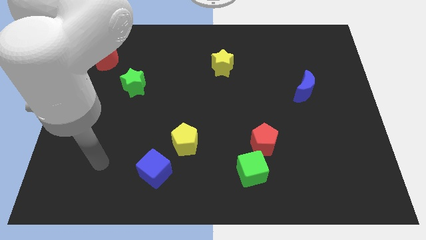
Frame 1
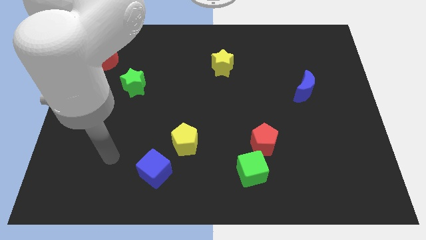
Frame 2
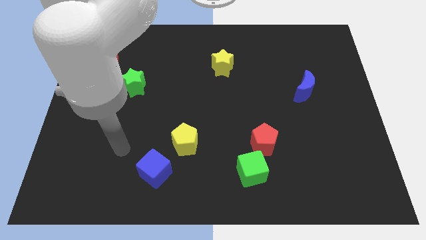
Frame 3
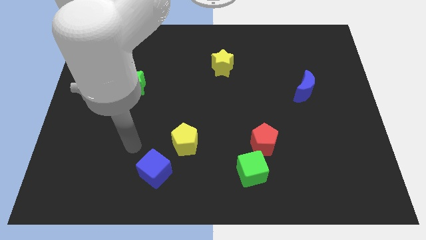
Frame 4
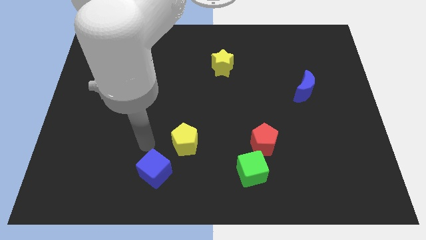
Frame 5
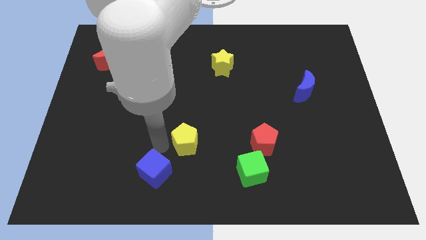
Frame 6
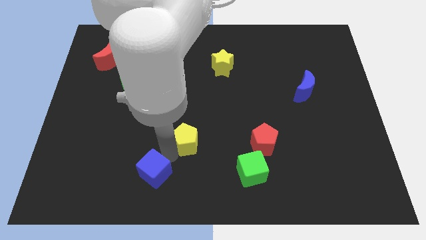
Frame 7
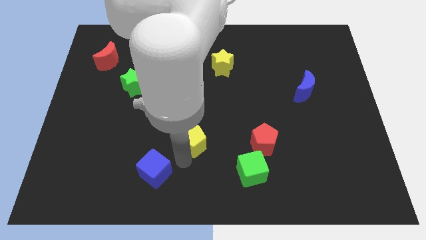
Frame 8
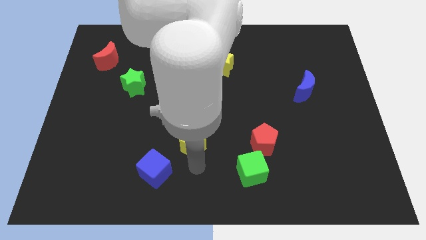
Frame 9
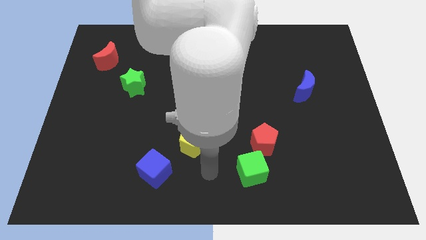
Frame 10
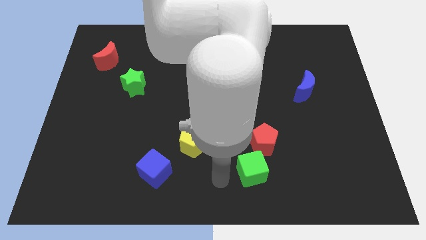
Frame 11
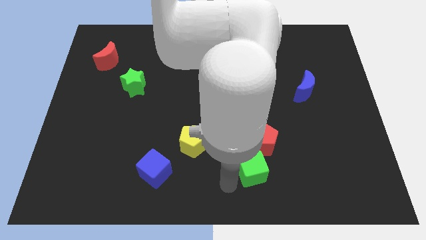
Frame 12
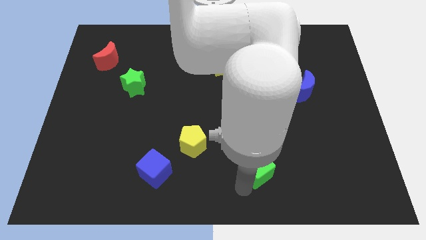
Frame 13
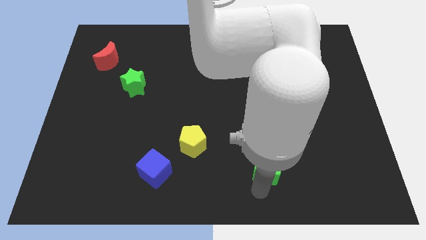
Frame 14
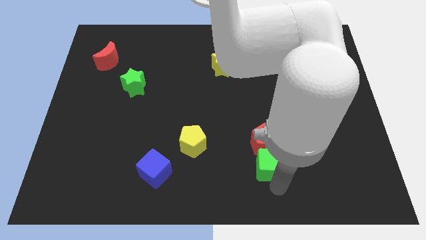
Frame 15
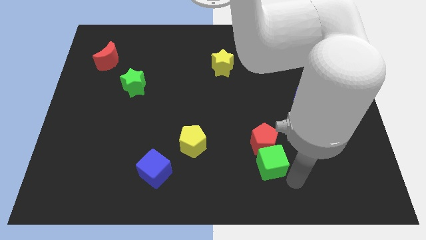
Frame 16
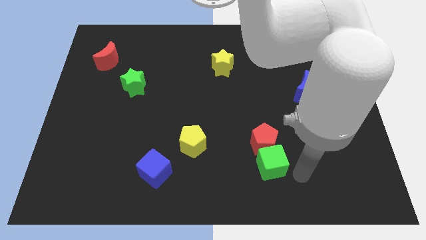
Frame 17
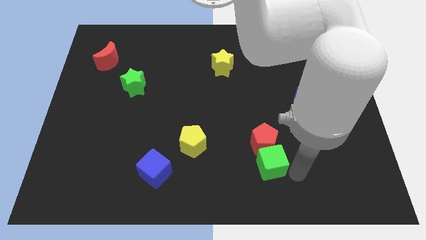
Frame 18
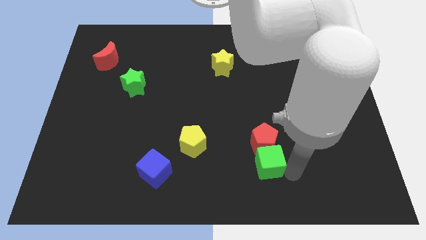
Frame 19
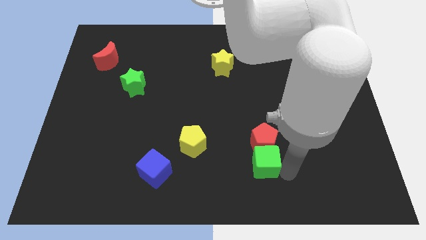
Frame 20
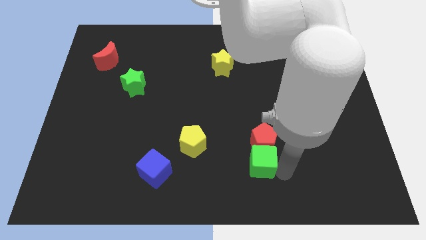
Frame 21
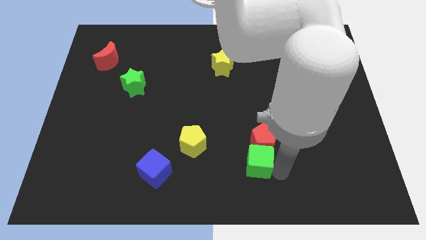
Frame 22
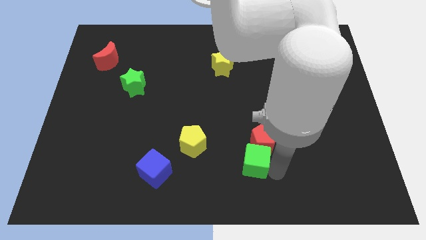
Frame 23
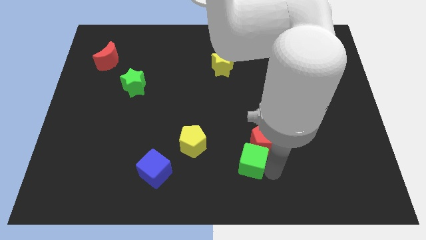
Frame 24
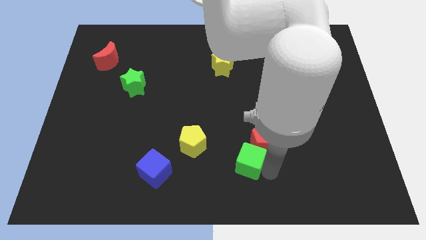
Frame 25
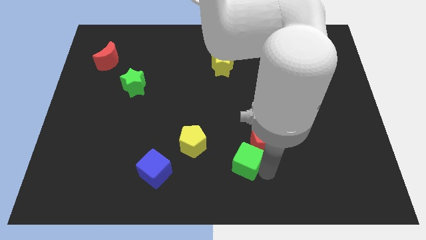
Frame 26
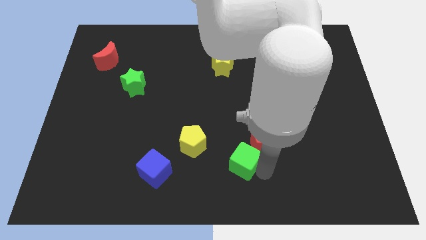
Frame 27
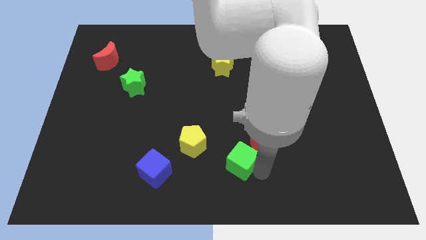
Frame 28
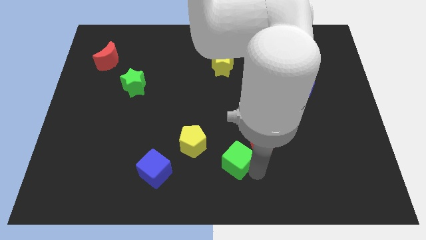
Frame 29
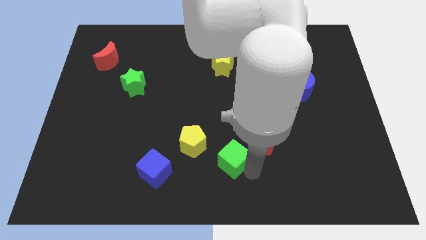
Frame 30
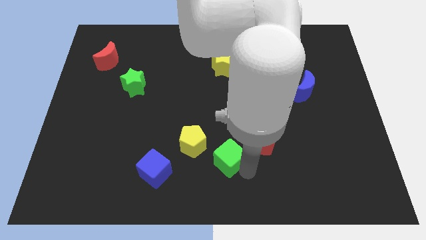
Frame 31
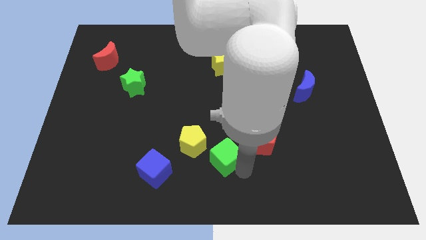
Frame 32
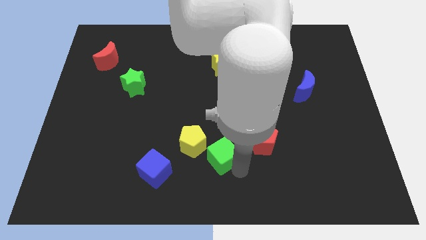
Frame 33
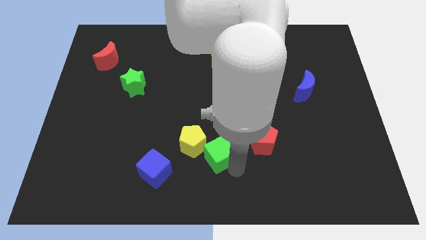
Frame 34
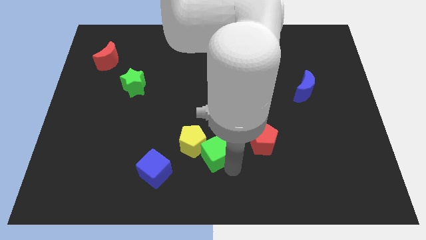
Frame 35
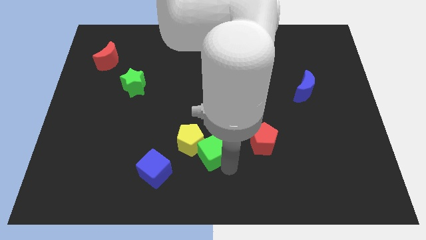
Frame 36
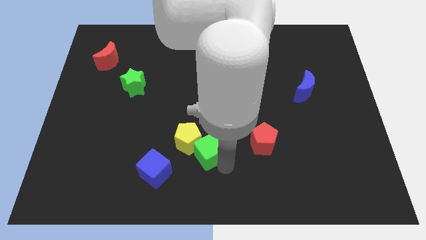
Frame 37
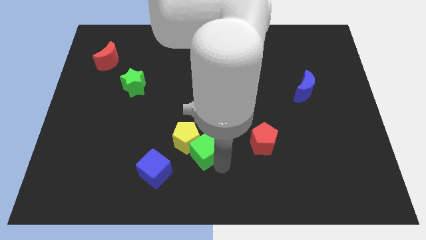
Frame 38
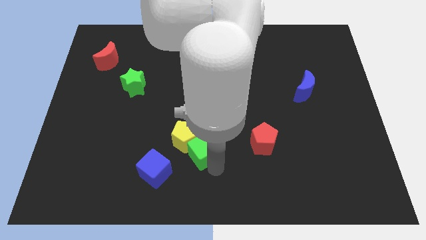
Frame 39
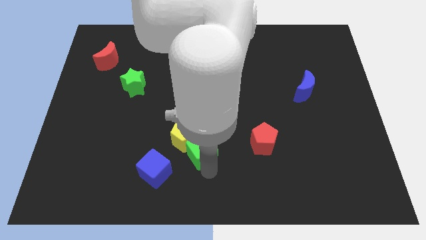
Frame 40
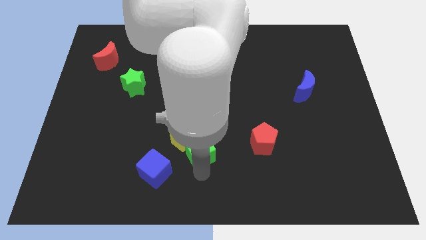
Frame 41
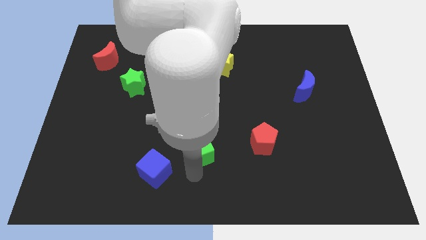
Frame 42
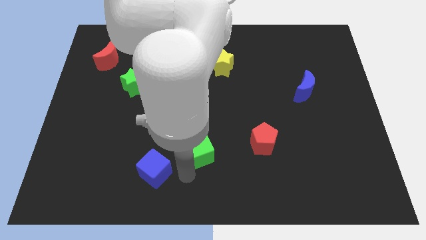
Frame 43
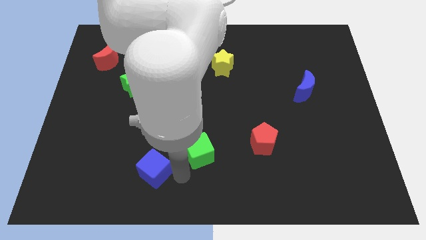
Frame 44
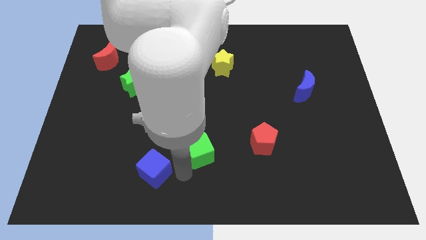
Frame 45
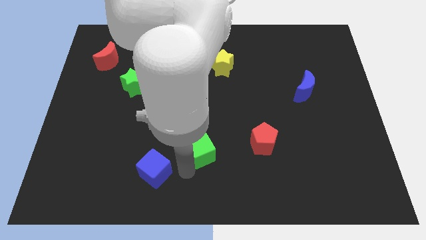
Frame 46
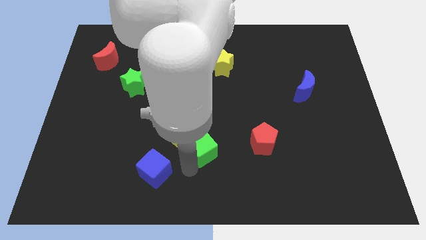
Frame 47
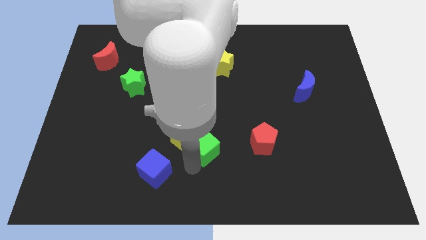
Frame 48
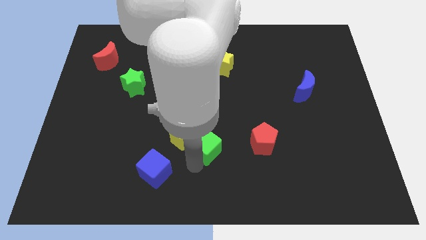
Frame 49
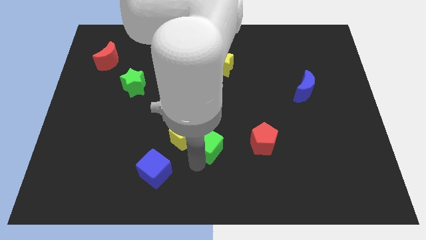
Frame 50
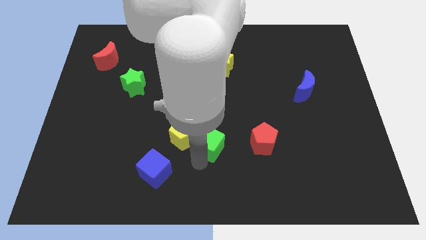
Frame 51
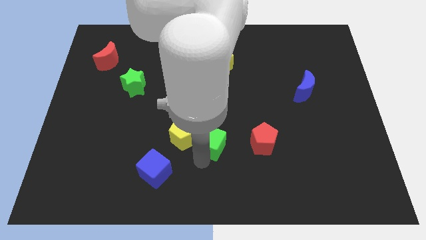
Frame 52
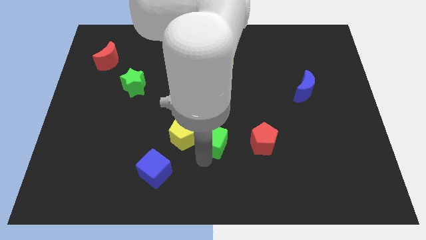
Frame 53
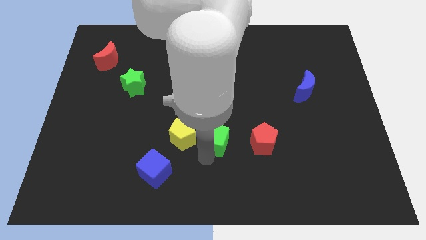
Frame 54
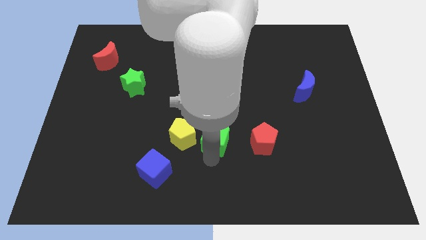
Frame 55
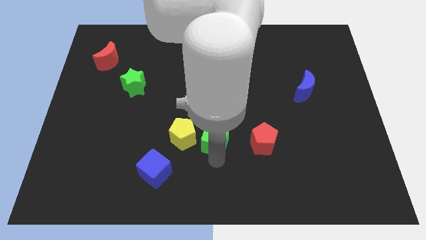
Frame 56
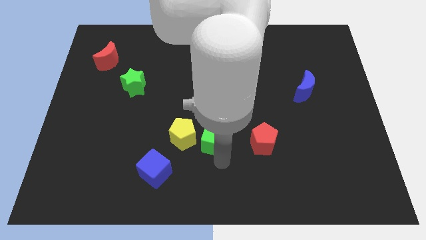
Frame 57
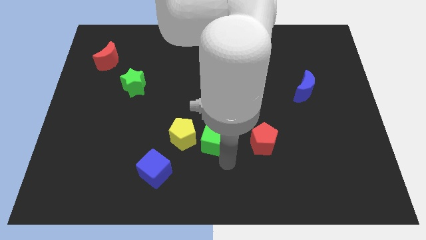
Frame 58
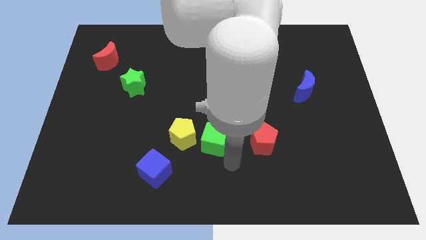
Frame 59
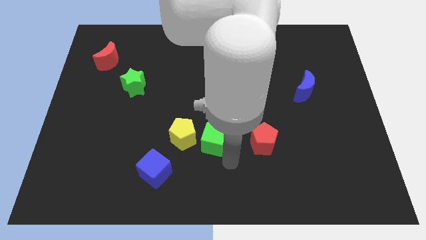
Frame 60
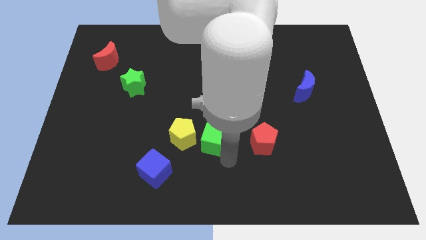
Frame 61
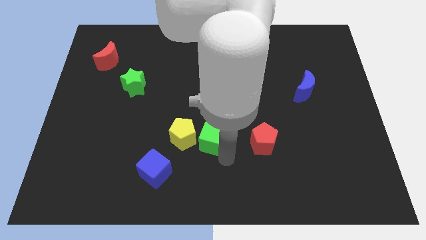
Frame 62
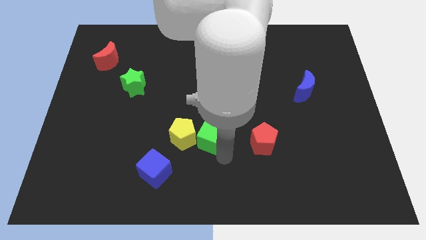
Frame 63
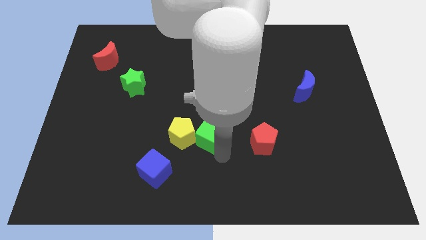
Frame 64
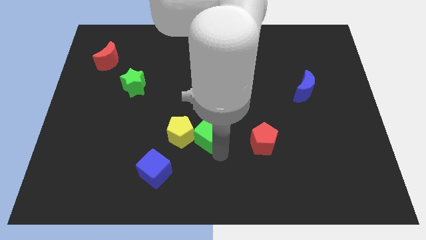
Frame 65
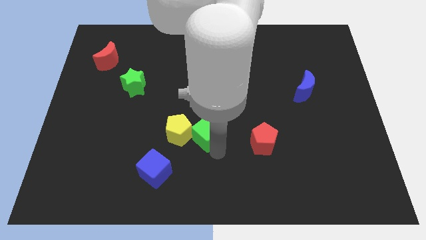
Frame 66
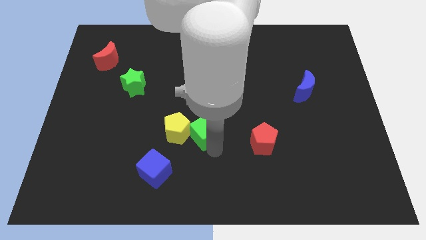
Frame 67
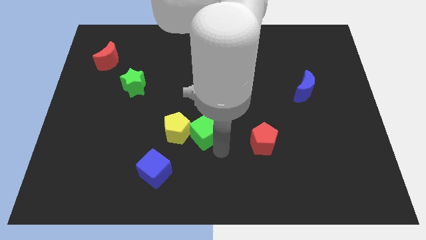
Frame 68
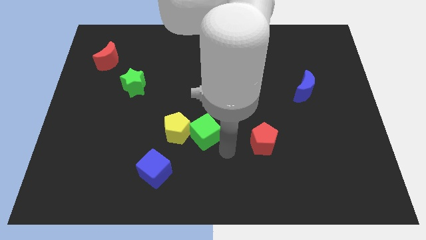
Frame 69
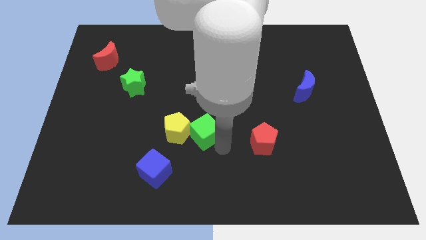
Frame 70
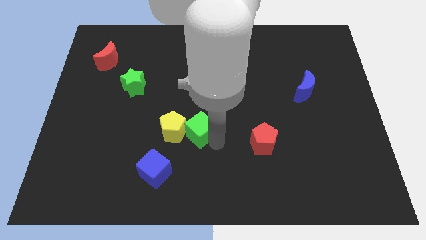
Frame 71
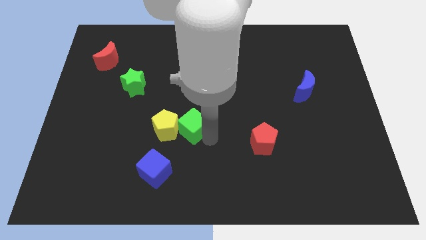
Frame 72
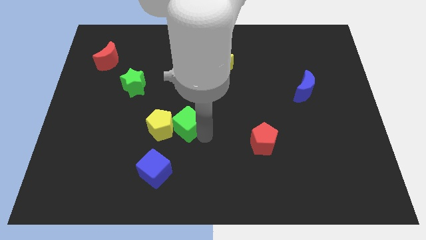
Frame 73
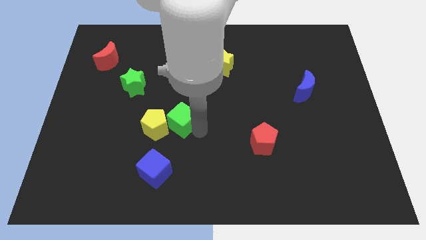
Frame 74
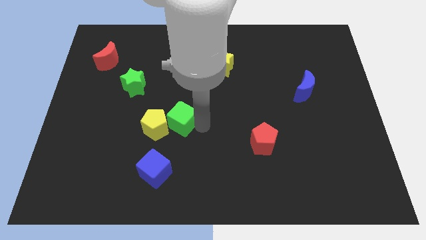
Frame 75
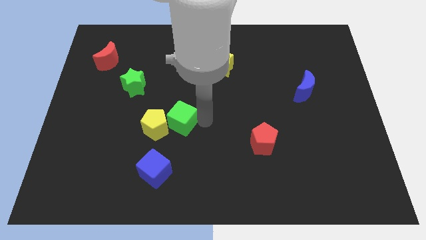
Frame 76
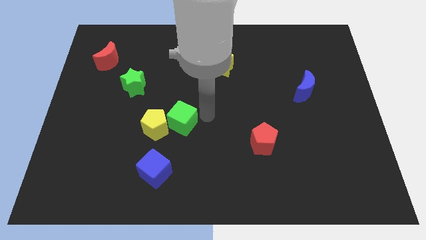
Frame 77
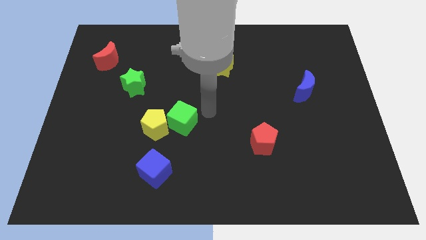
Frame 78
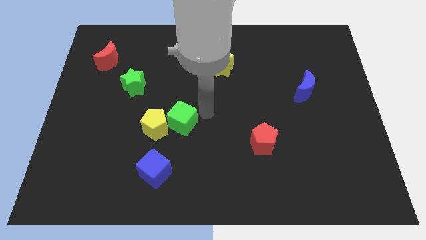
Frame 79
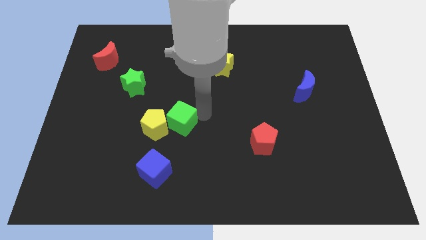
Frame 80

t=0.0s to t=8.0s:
push the green cube above the blue cube
